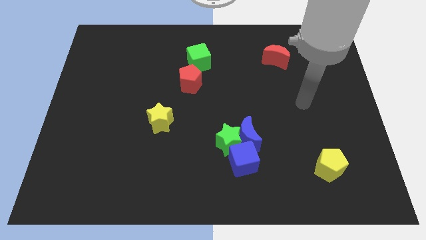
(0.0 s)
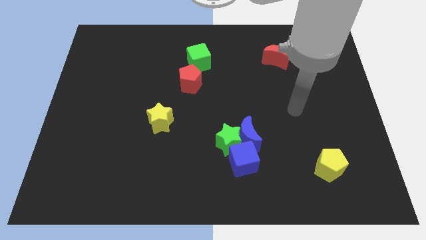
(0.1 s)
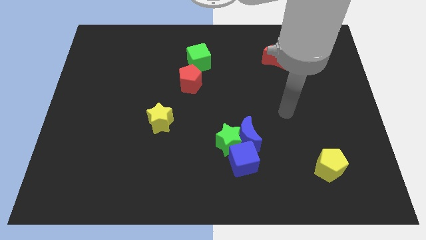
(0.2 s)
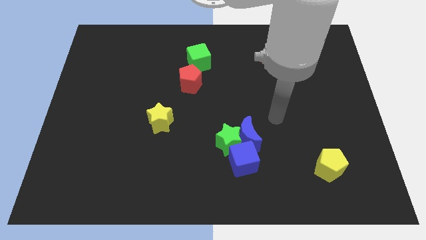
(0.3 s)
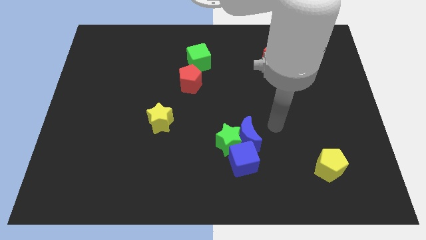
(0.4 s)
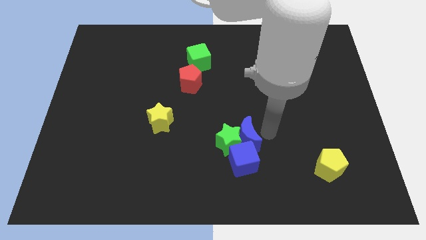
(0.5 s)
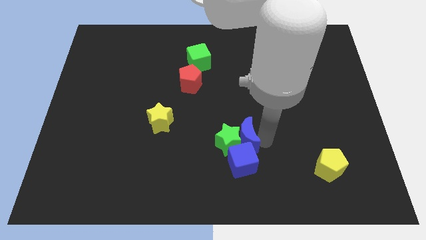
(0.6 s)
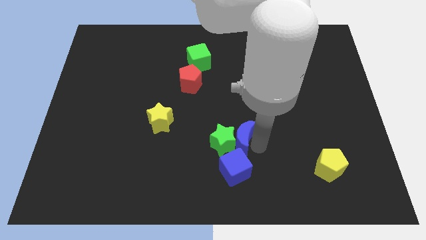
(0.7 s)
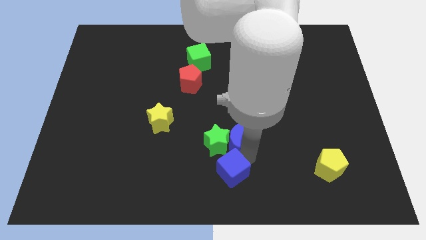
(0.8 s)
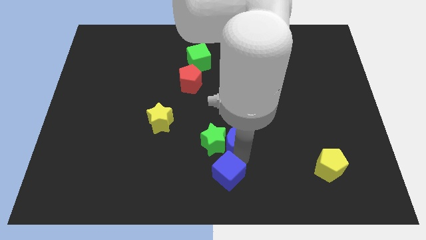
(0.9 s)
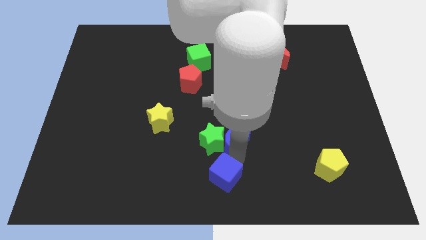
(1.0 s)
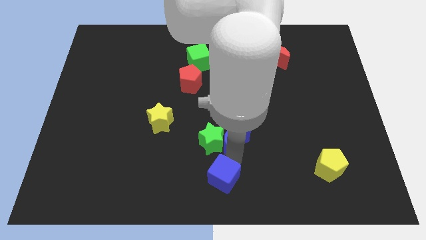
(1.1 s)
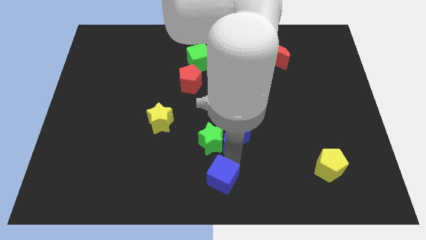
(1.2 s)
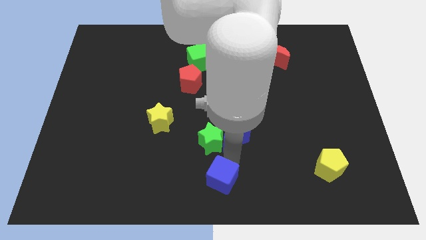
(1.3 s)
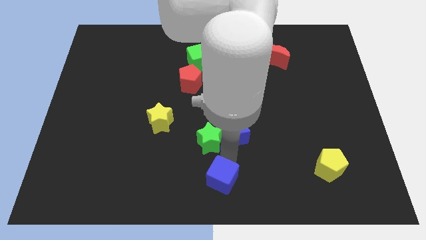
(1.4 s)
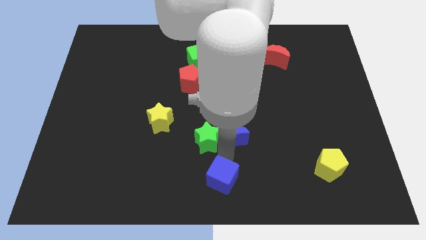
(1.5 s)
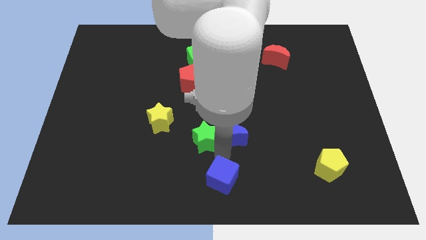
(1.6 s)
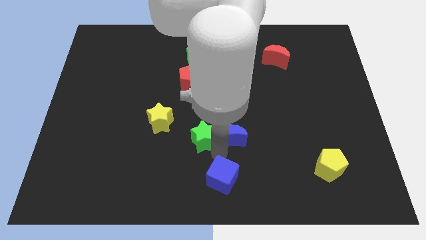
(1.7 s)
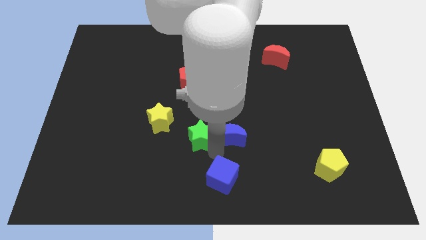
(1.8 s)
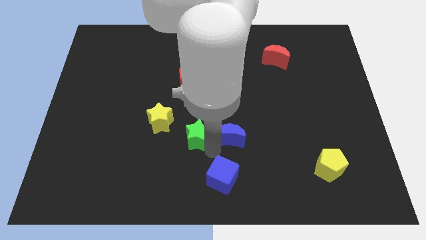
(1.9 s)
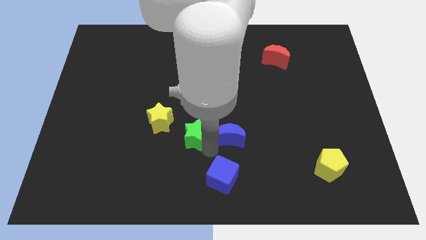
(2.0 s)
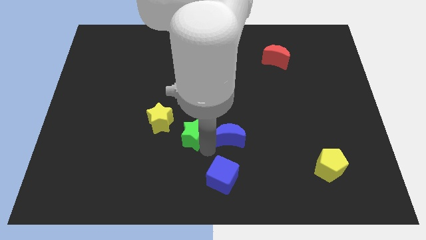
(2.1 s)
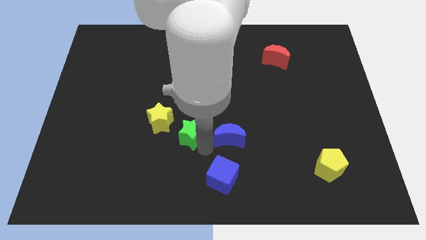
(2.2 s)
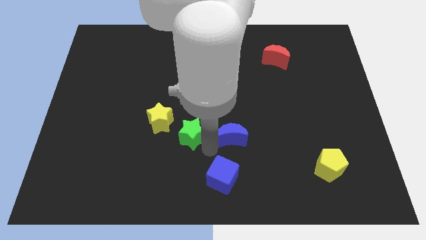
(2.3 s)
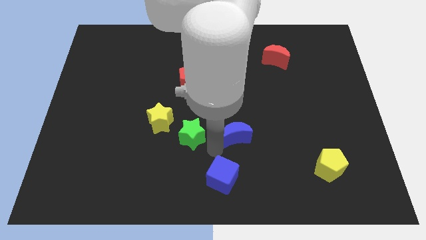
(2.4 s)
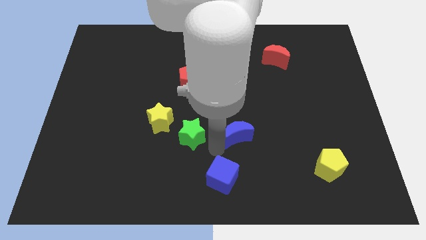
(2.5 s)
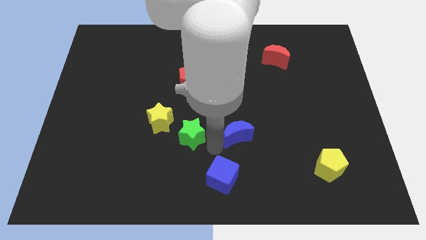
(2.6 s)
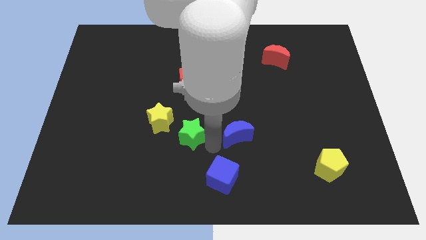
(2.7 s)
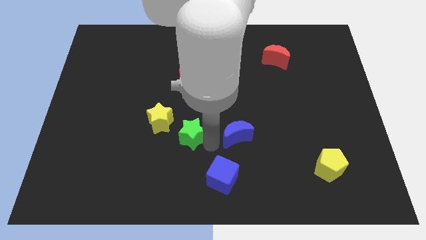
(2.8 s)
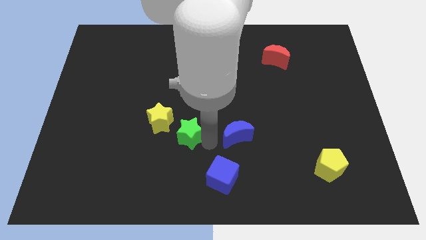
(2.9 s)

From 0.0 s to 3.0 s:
move the green star away from the blue moon and blue cube

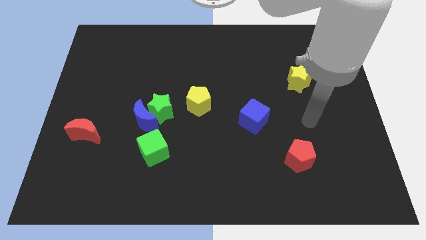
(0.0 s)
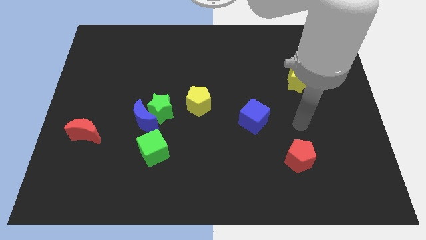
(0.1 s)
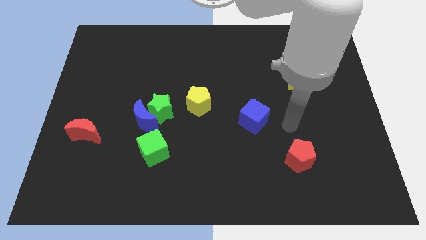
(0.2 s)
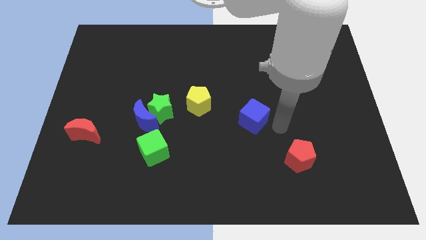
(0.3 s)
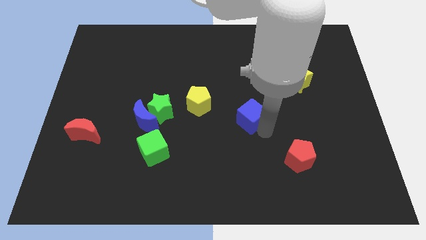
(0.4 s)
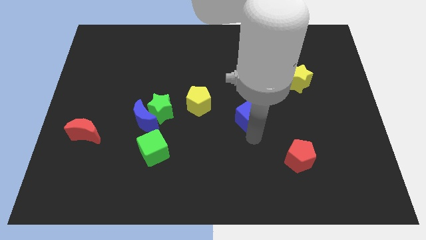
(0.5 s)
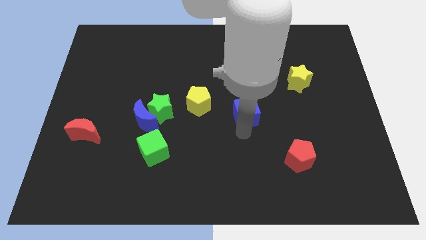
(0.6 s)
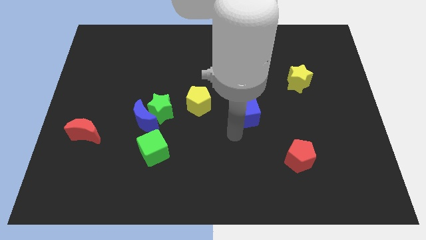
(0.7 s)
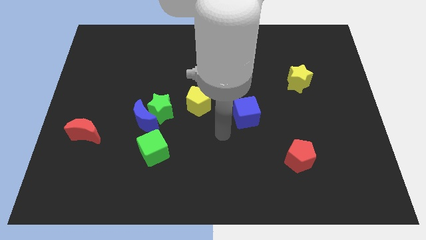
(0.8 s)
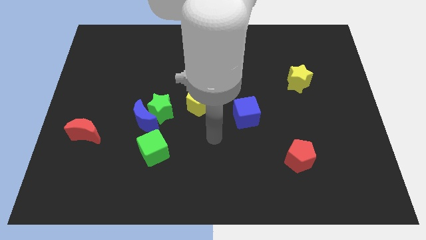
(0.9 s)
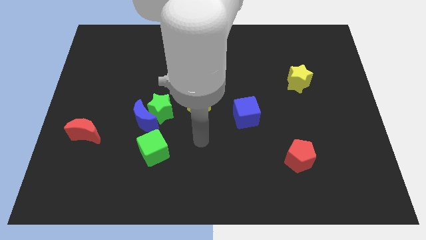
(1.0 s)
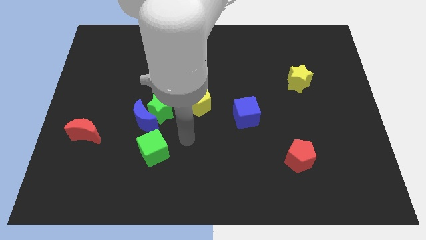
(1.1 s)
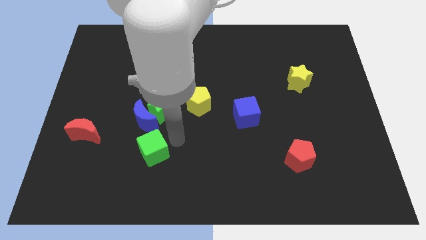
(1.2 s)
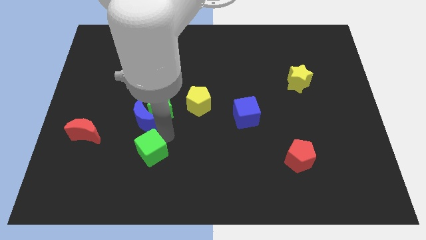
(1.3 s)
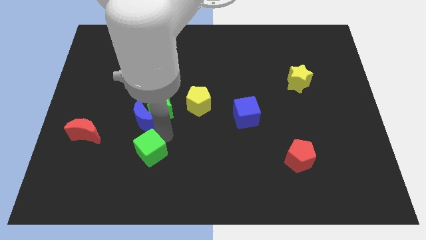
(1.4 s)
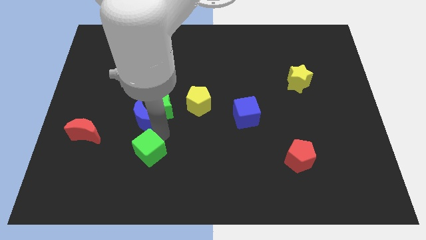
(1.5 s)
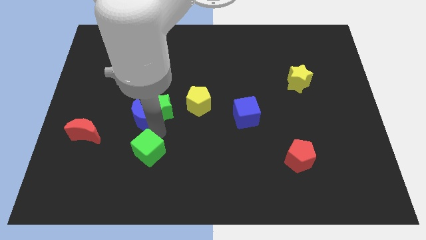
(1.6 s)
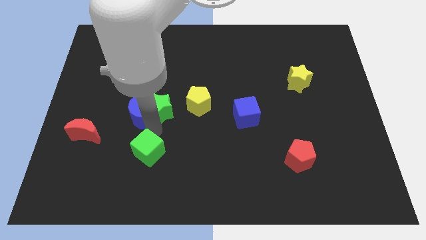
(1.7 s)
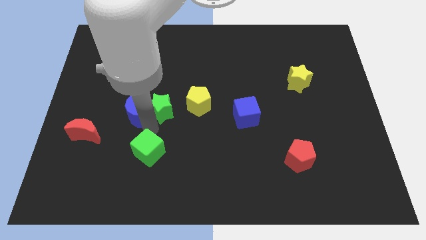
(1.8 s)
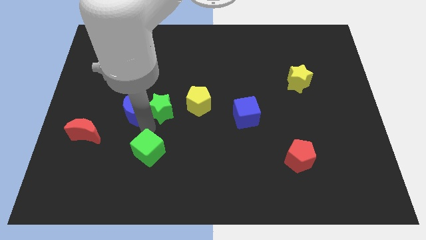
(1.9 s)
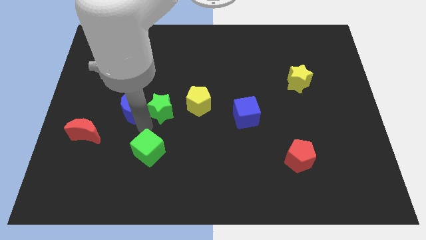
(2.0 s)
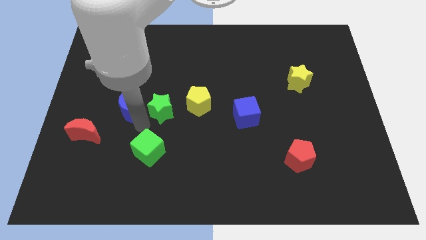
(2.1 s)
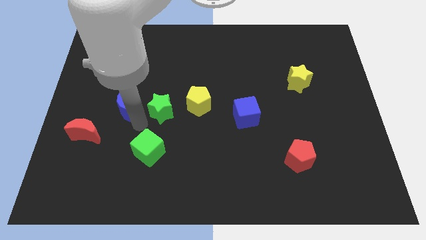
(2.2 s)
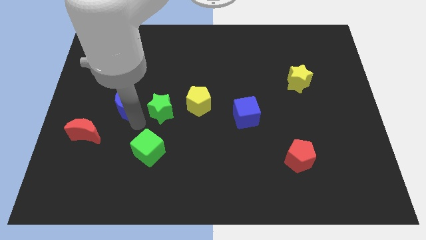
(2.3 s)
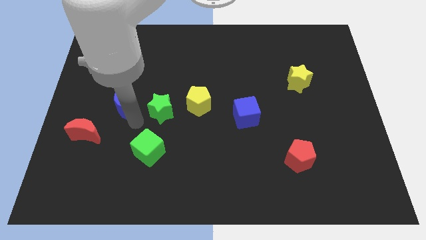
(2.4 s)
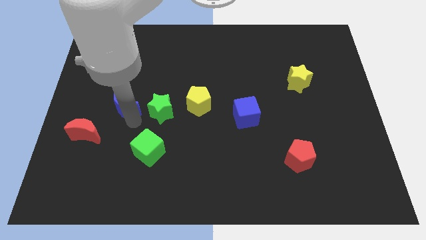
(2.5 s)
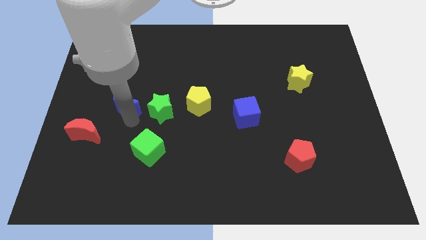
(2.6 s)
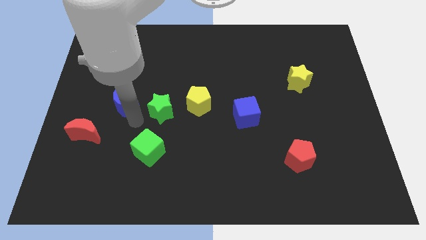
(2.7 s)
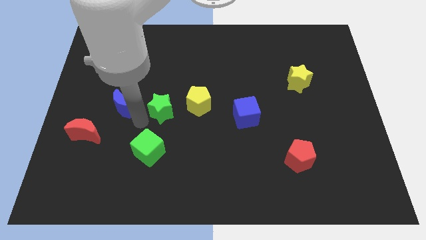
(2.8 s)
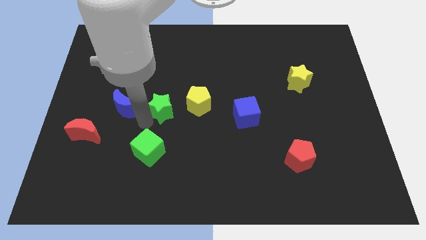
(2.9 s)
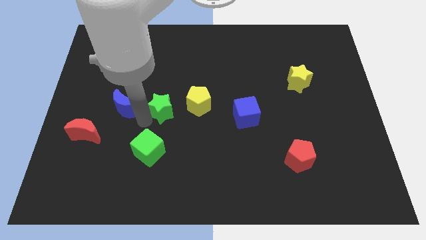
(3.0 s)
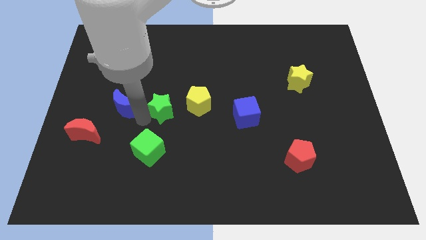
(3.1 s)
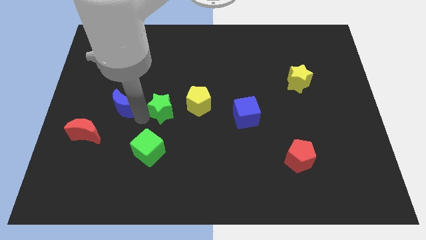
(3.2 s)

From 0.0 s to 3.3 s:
pull the blue moon apart from the green star and green cube

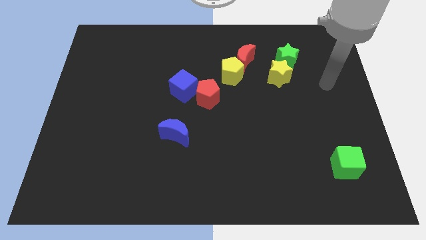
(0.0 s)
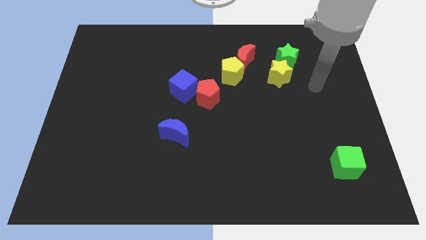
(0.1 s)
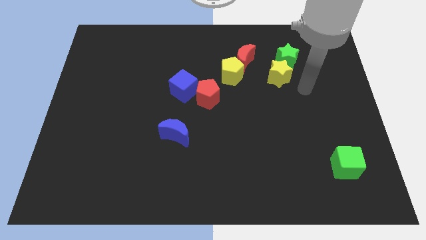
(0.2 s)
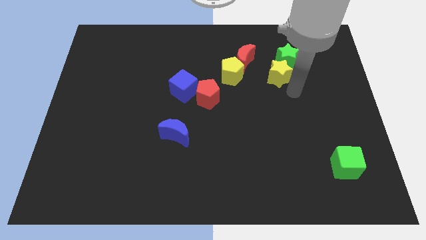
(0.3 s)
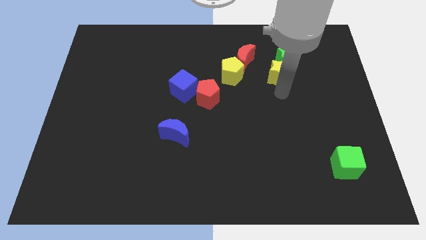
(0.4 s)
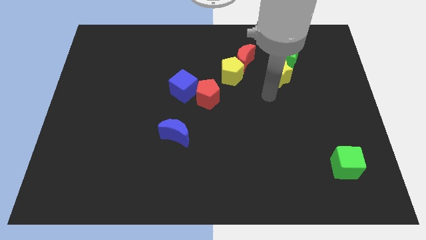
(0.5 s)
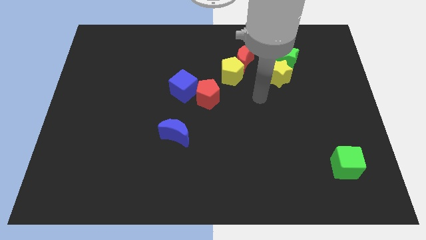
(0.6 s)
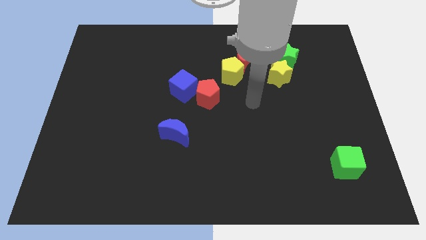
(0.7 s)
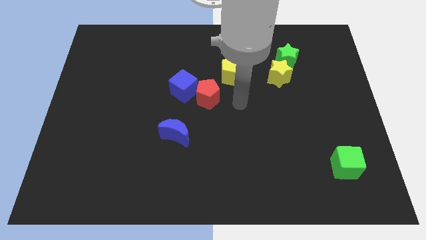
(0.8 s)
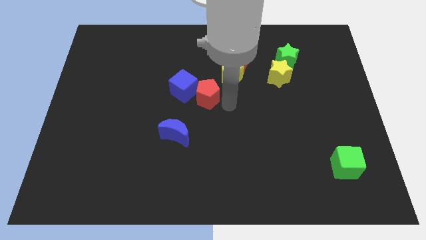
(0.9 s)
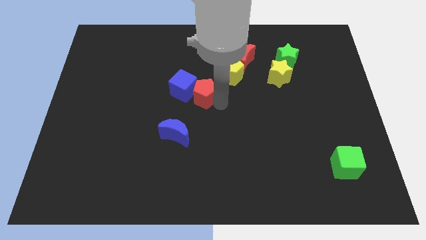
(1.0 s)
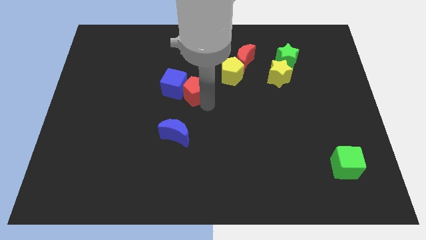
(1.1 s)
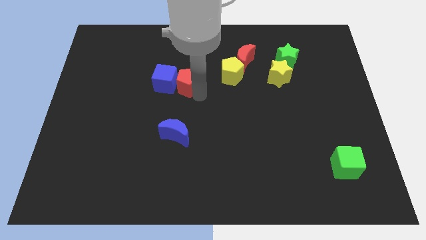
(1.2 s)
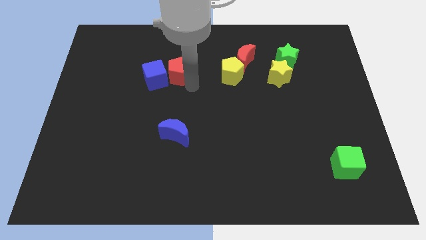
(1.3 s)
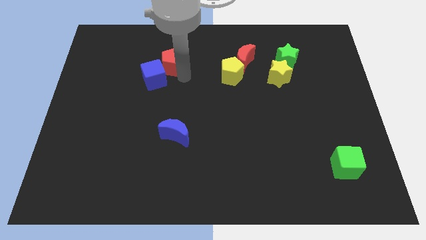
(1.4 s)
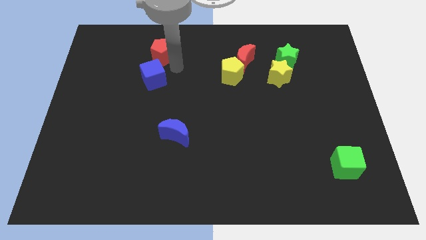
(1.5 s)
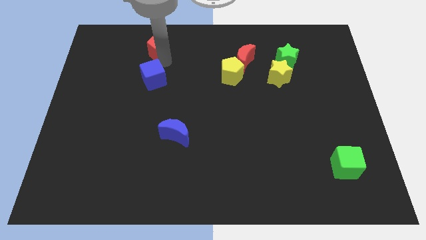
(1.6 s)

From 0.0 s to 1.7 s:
move the blue cube away from the red pentagon

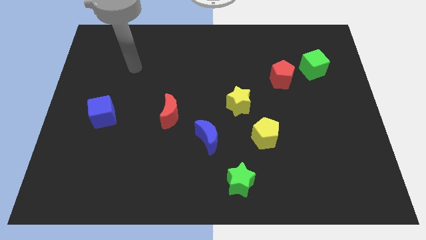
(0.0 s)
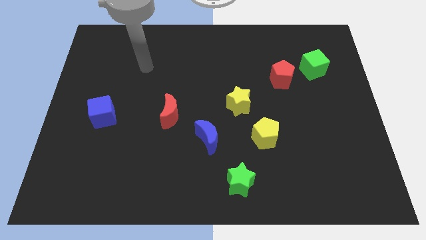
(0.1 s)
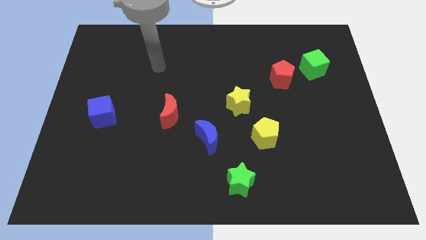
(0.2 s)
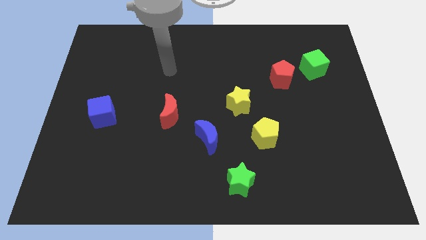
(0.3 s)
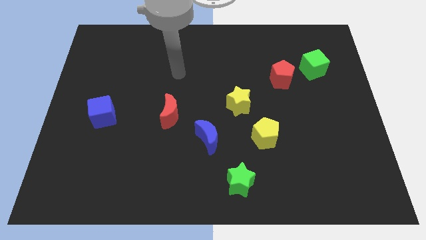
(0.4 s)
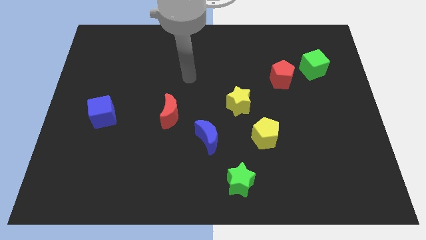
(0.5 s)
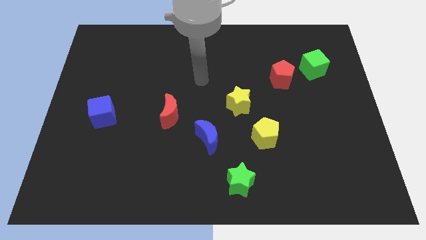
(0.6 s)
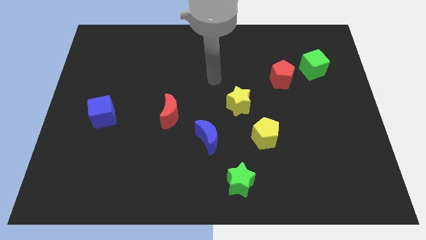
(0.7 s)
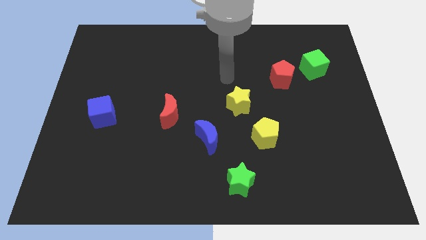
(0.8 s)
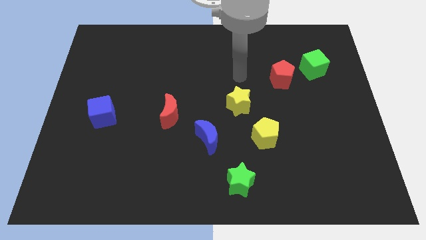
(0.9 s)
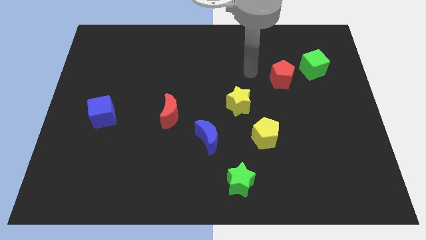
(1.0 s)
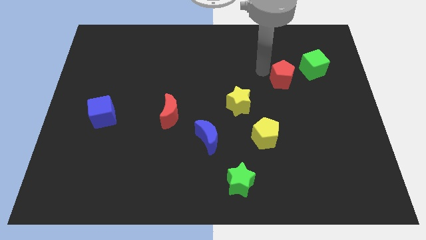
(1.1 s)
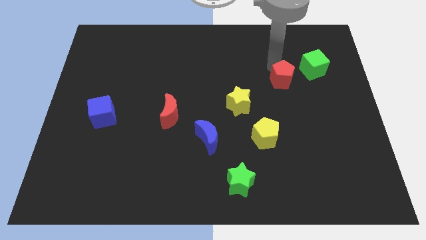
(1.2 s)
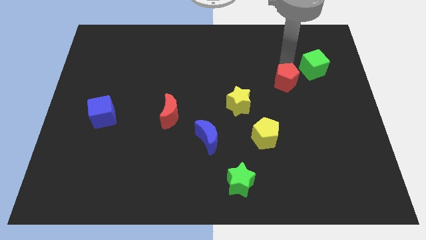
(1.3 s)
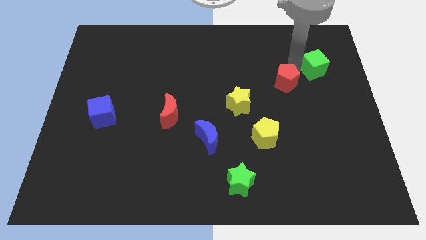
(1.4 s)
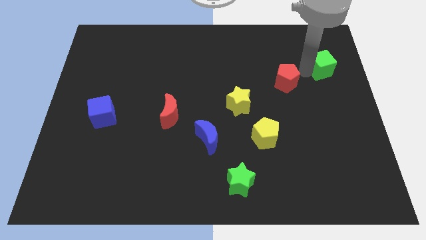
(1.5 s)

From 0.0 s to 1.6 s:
pull the red pentagon apart from the green cube

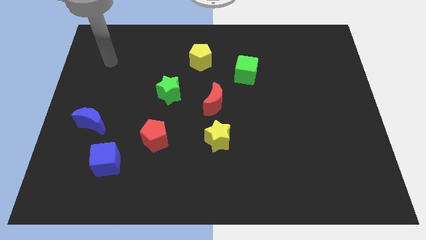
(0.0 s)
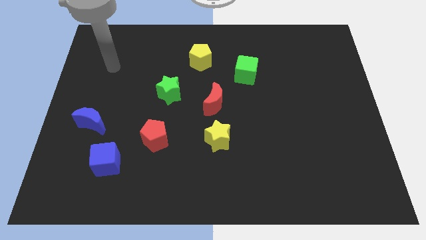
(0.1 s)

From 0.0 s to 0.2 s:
move the red moon away from the yellow star
